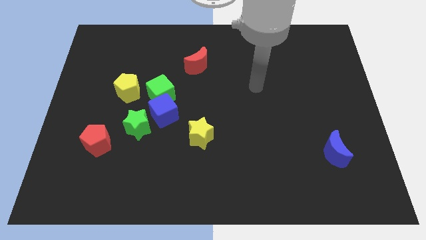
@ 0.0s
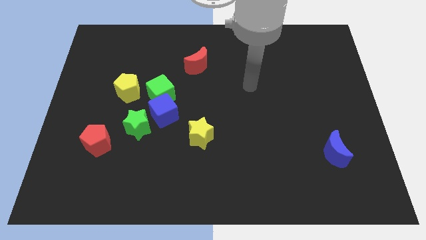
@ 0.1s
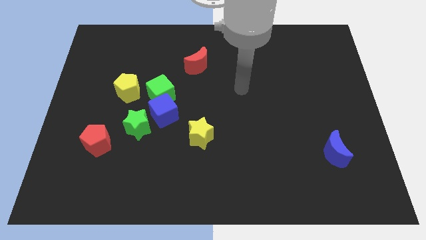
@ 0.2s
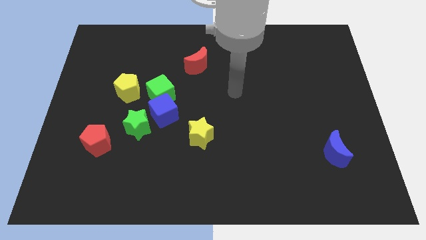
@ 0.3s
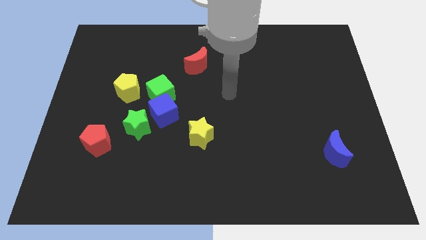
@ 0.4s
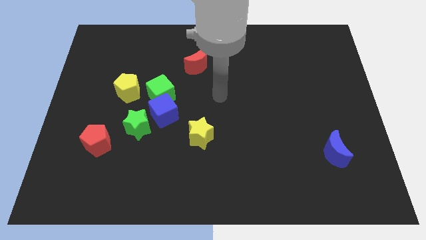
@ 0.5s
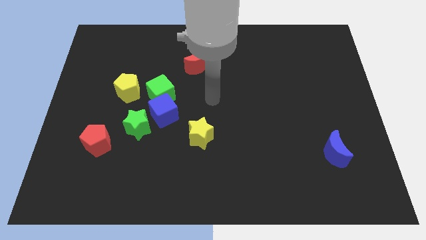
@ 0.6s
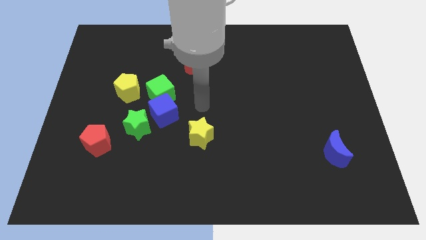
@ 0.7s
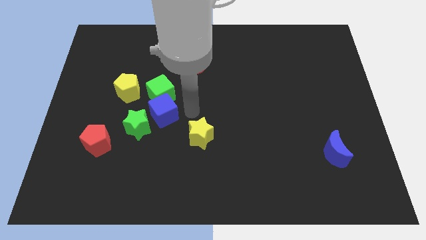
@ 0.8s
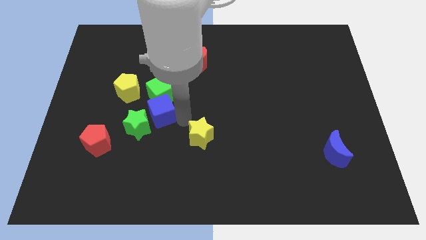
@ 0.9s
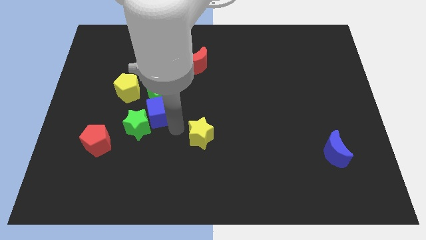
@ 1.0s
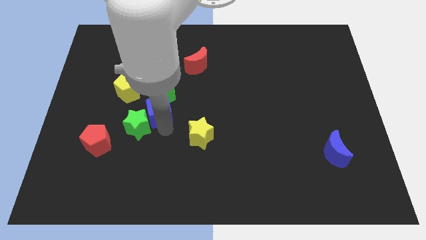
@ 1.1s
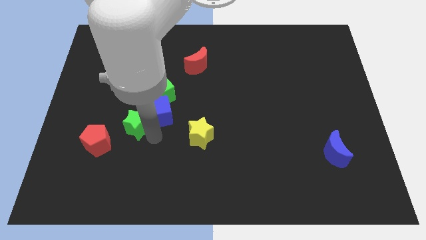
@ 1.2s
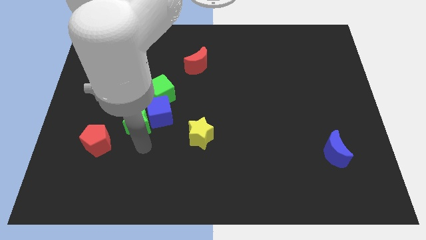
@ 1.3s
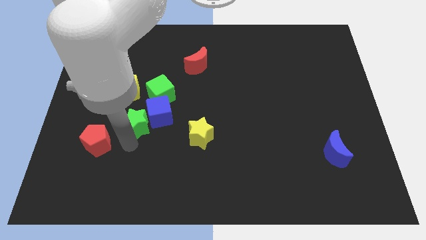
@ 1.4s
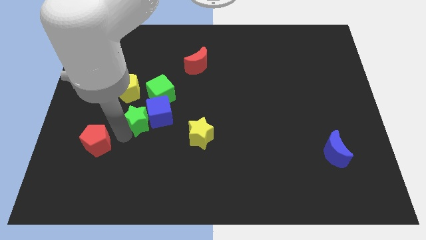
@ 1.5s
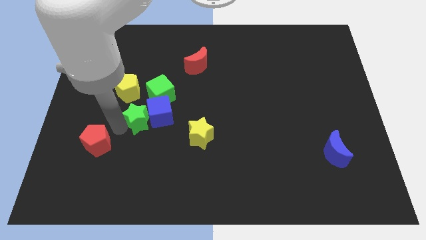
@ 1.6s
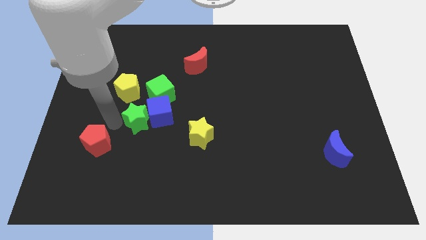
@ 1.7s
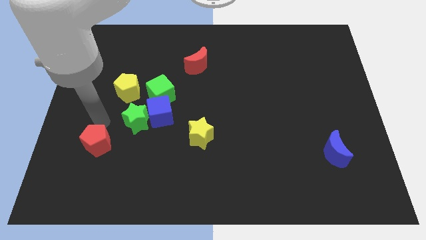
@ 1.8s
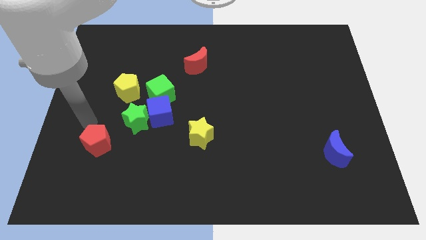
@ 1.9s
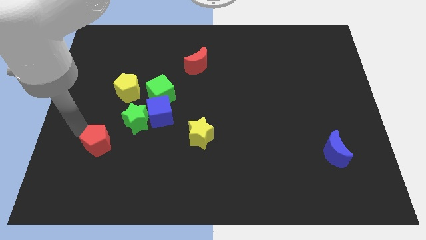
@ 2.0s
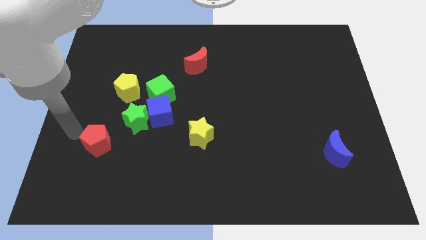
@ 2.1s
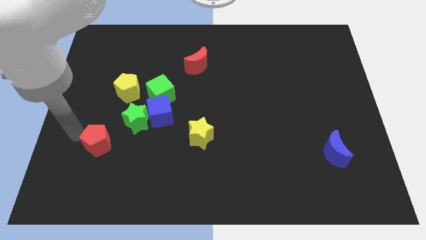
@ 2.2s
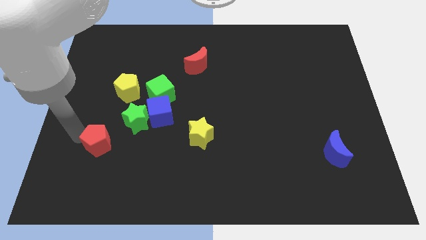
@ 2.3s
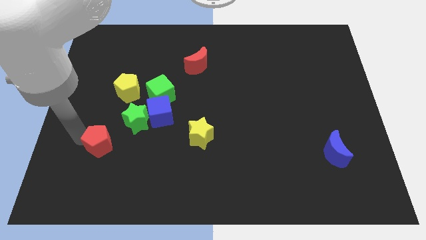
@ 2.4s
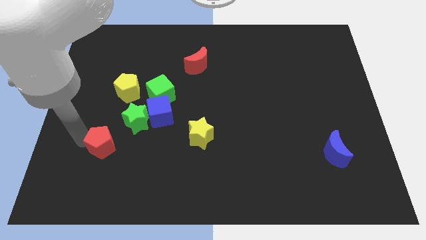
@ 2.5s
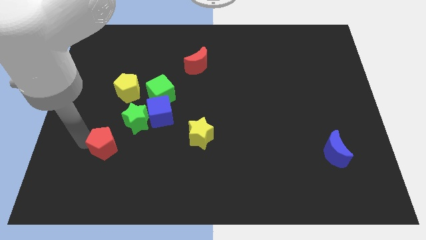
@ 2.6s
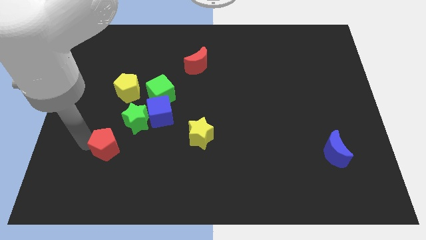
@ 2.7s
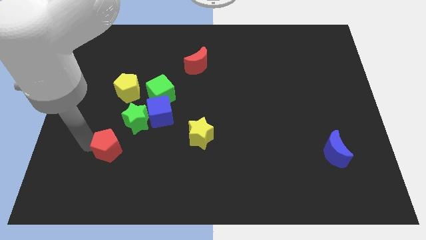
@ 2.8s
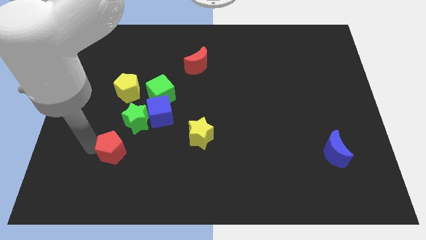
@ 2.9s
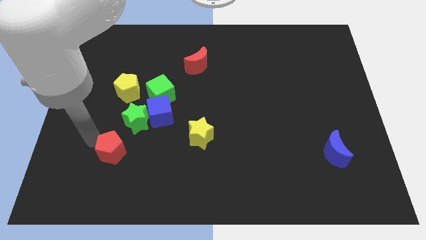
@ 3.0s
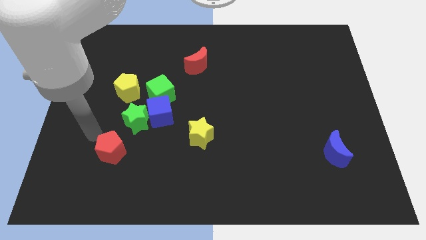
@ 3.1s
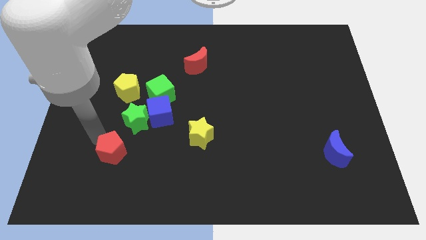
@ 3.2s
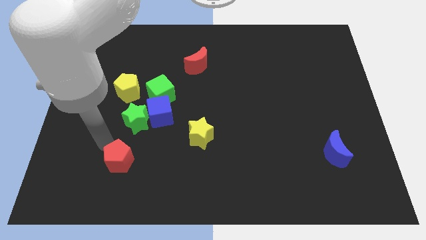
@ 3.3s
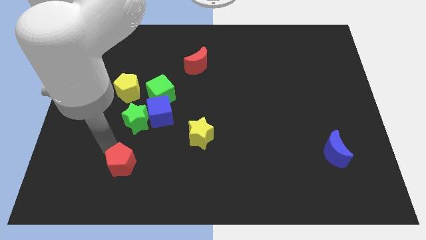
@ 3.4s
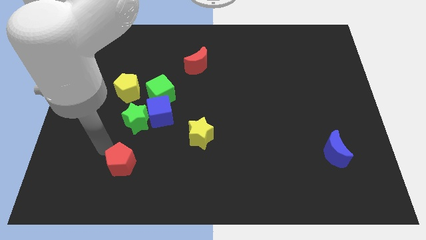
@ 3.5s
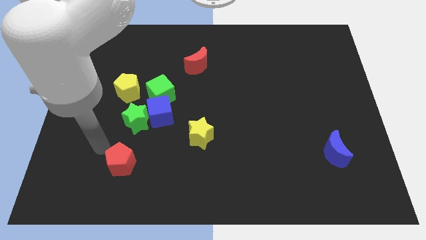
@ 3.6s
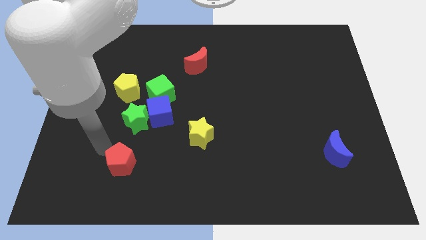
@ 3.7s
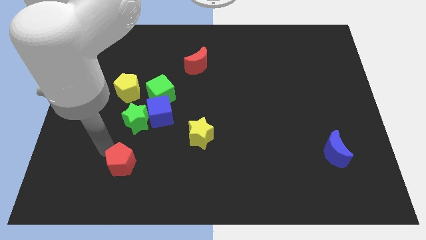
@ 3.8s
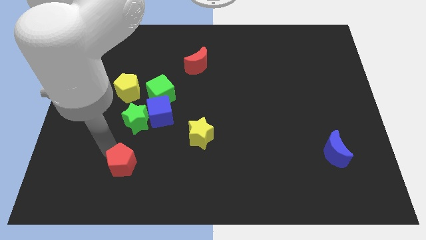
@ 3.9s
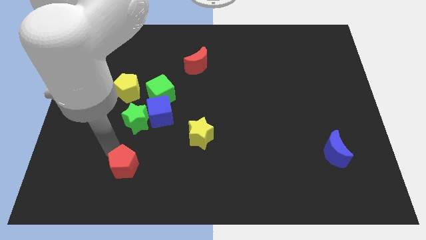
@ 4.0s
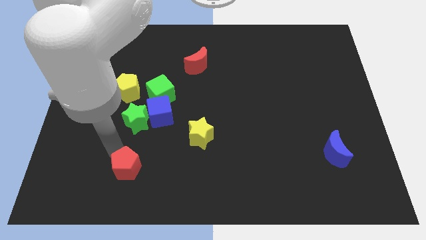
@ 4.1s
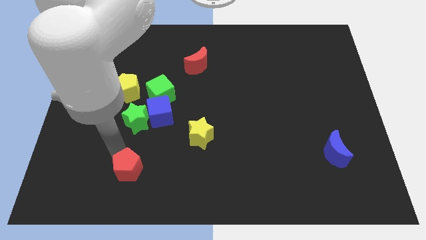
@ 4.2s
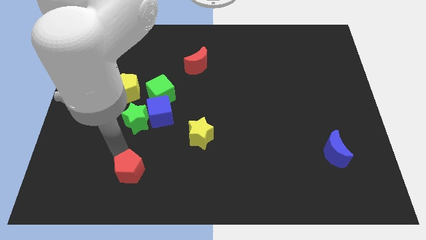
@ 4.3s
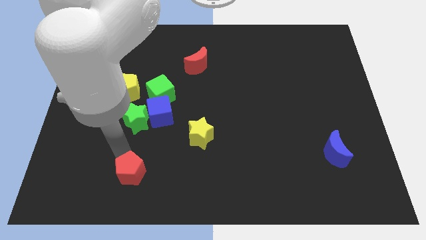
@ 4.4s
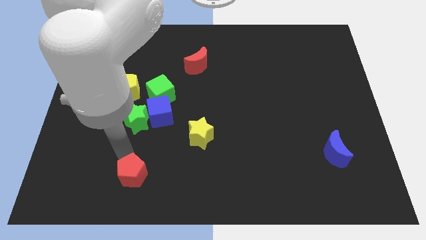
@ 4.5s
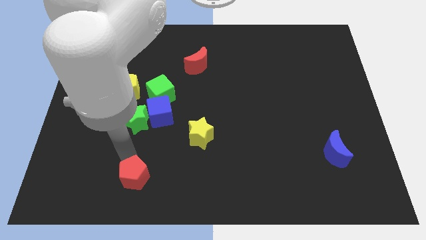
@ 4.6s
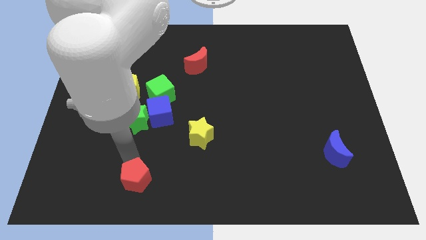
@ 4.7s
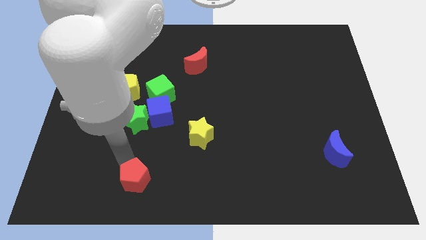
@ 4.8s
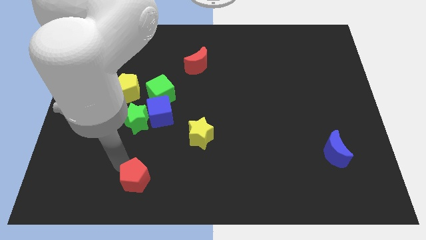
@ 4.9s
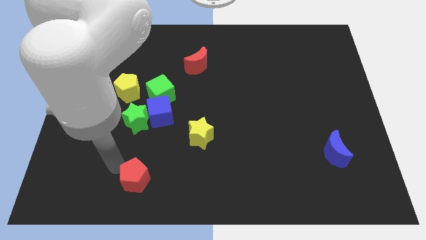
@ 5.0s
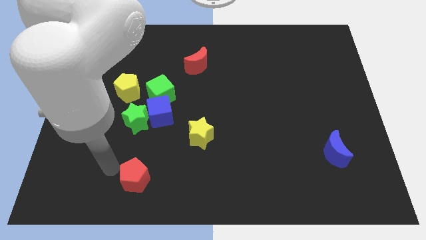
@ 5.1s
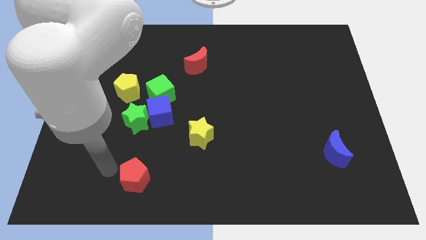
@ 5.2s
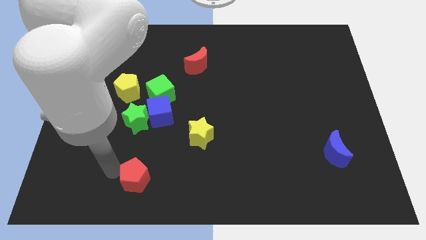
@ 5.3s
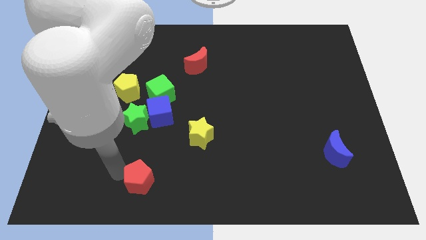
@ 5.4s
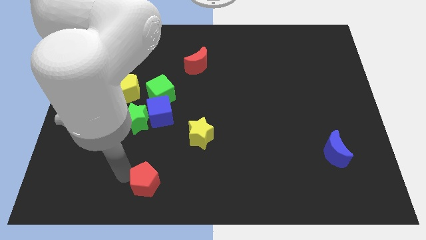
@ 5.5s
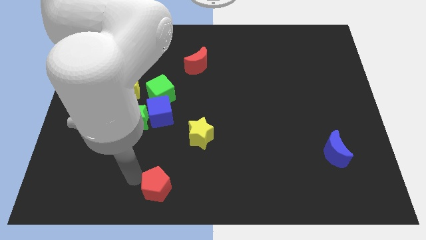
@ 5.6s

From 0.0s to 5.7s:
move the red pentagon to the bottom

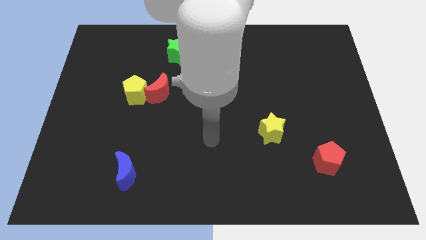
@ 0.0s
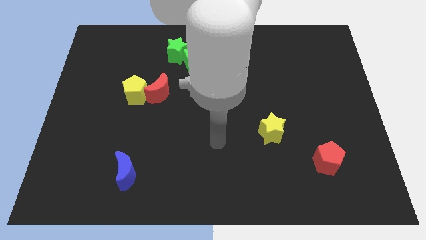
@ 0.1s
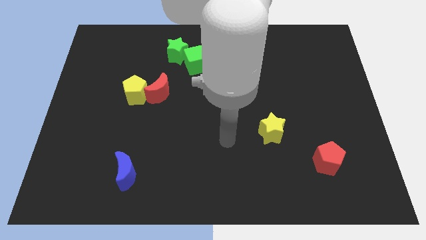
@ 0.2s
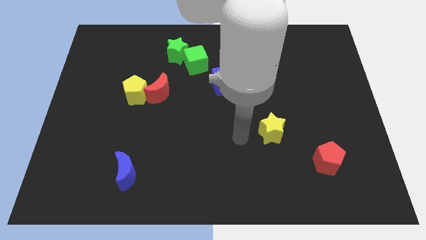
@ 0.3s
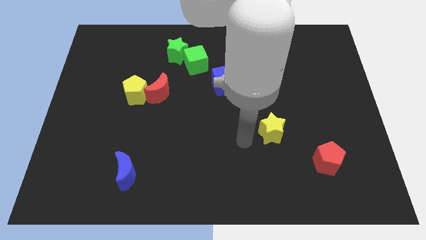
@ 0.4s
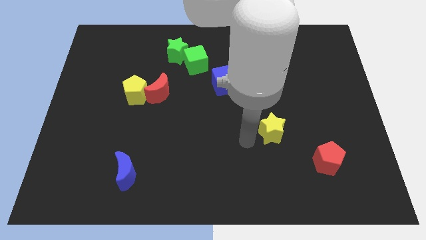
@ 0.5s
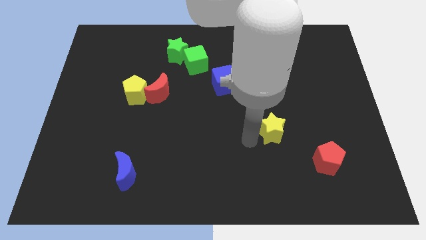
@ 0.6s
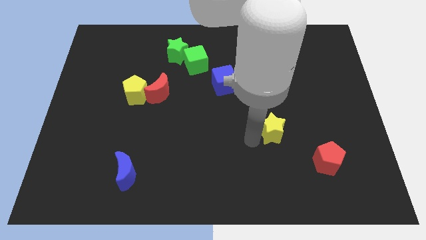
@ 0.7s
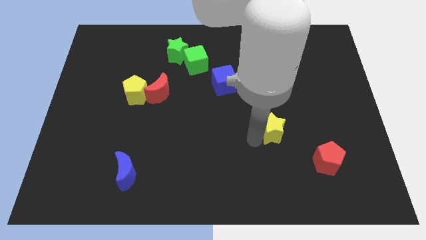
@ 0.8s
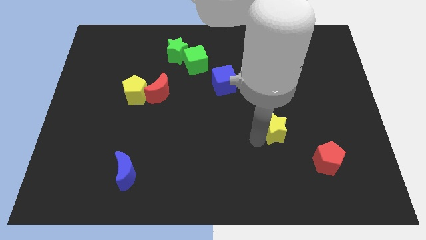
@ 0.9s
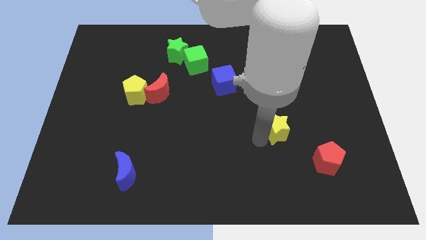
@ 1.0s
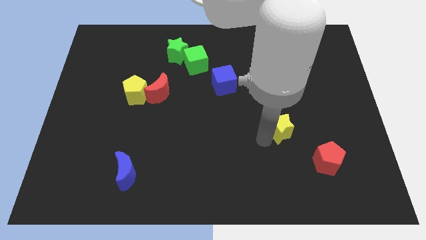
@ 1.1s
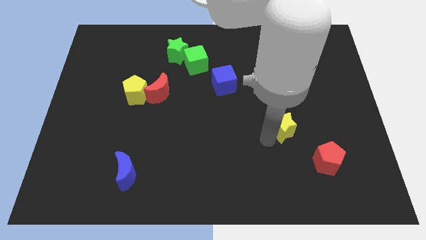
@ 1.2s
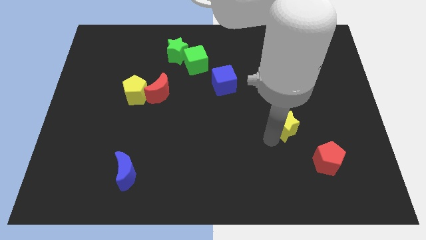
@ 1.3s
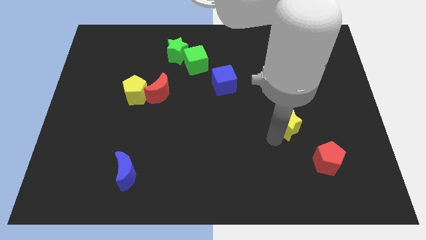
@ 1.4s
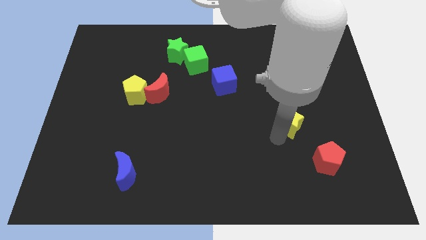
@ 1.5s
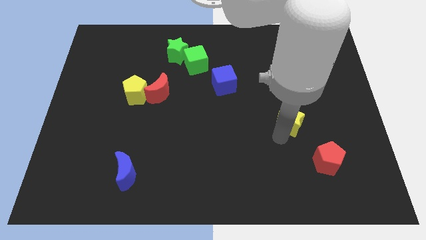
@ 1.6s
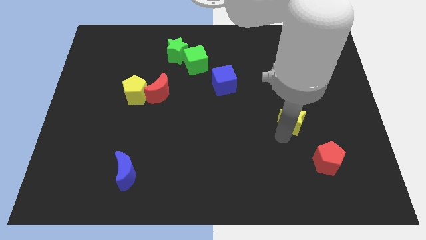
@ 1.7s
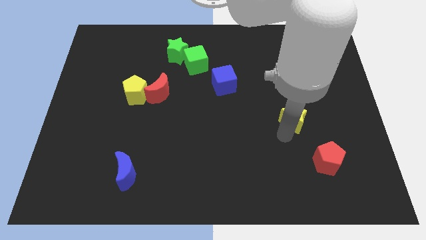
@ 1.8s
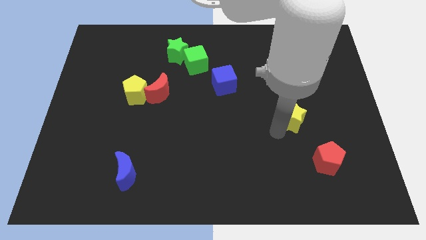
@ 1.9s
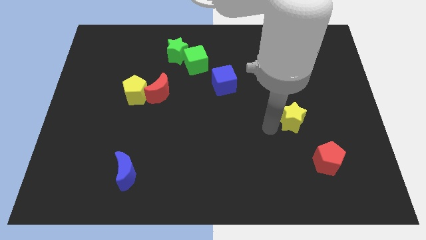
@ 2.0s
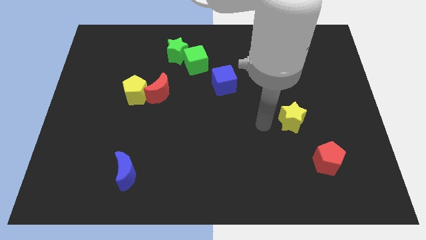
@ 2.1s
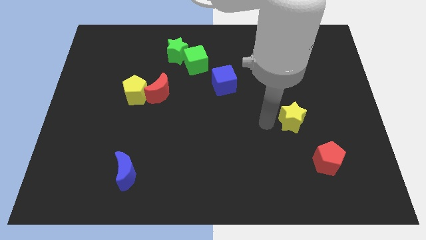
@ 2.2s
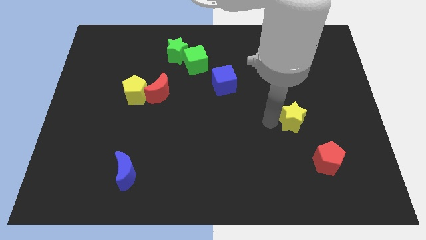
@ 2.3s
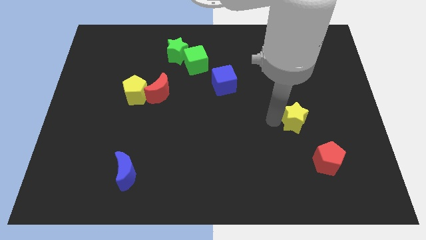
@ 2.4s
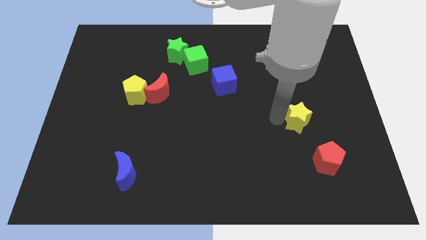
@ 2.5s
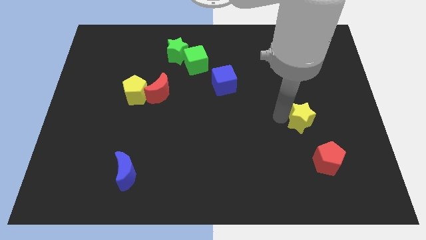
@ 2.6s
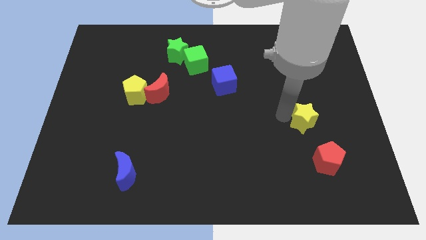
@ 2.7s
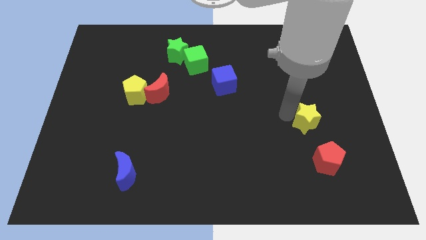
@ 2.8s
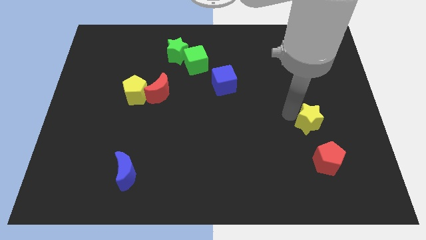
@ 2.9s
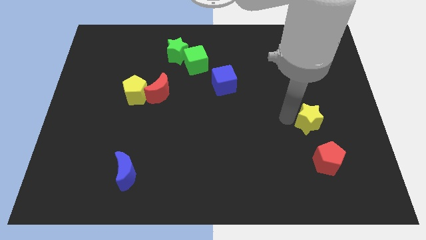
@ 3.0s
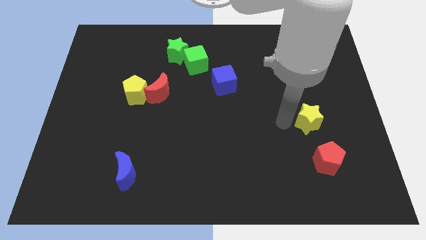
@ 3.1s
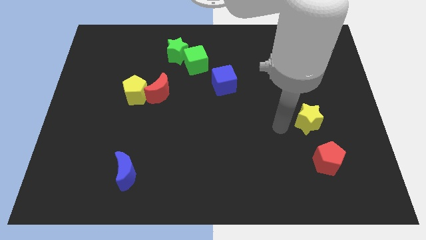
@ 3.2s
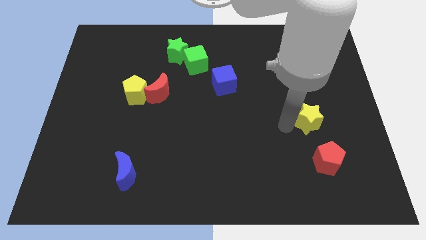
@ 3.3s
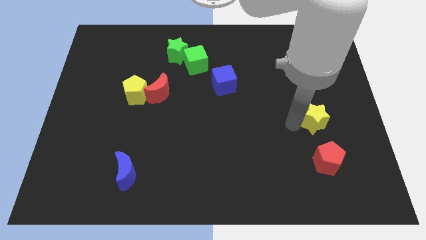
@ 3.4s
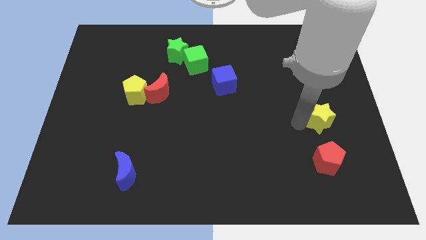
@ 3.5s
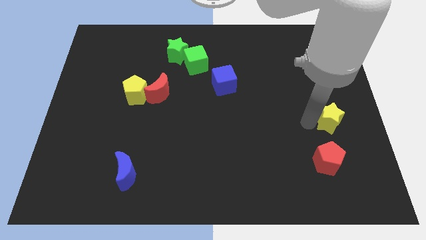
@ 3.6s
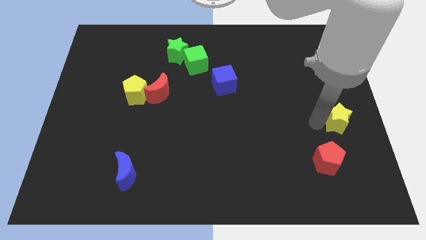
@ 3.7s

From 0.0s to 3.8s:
slide the yellow star to the right side
